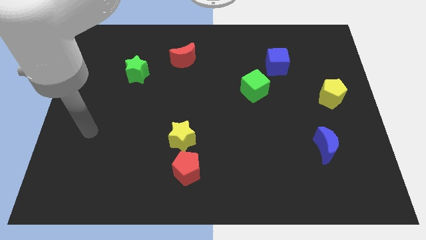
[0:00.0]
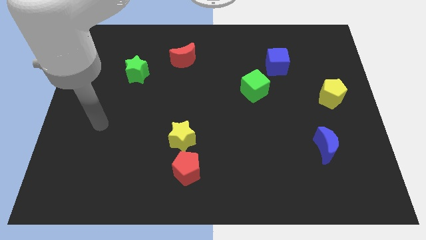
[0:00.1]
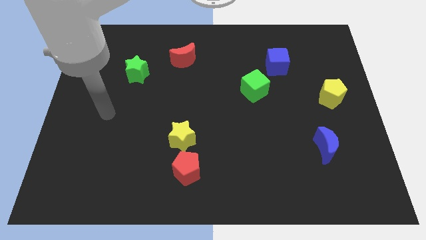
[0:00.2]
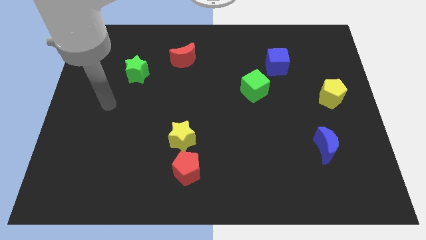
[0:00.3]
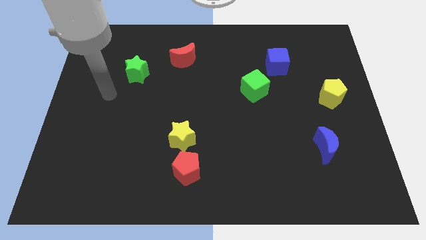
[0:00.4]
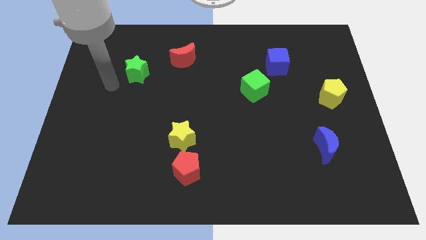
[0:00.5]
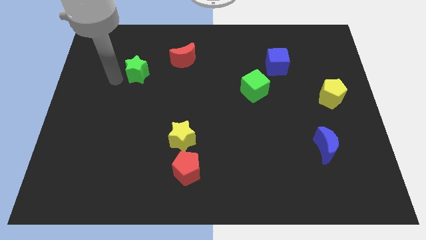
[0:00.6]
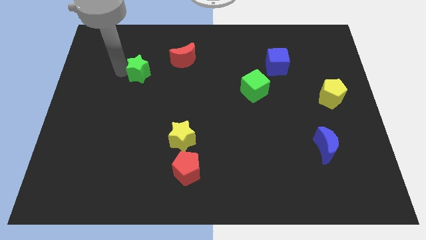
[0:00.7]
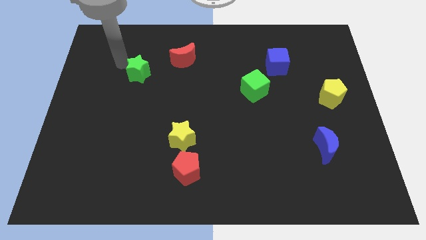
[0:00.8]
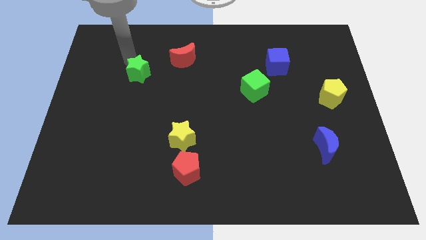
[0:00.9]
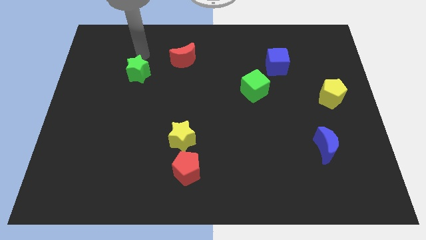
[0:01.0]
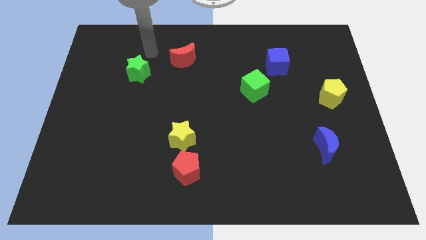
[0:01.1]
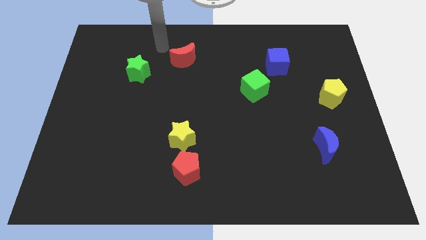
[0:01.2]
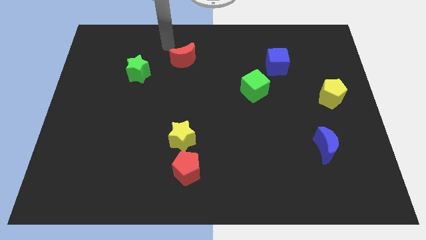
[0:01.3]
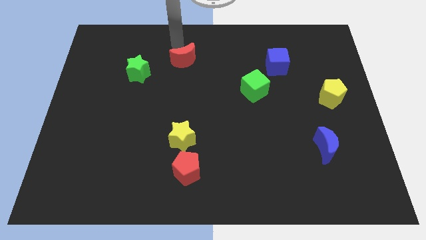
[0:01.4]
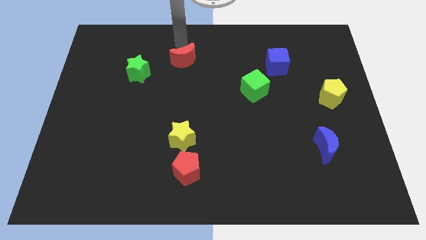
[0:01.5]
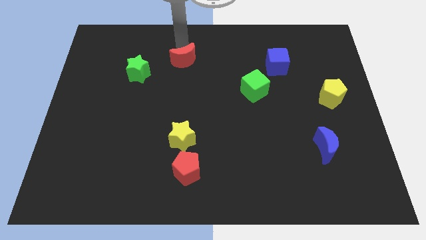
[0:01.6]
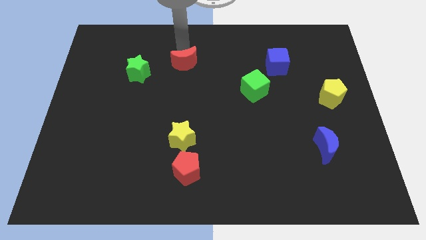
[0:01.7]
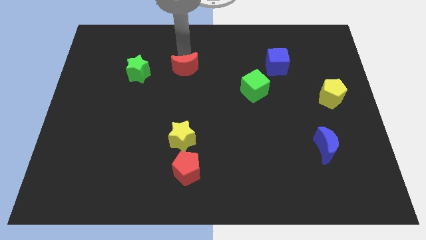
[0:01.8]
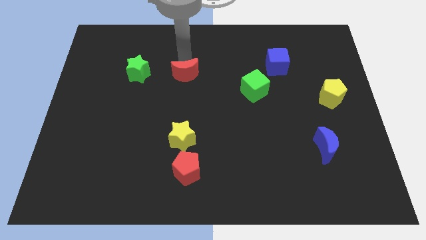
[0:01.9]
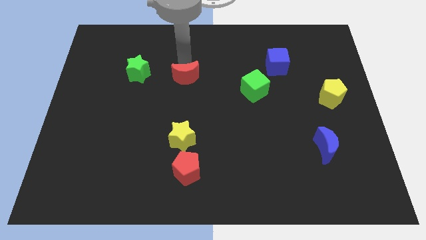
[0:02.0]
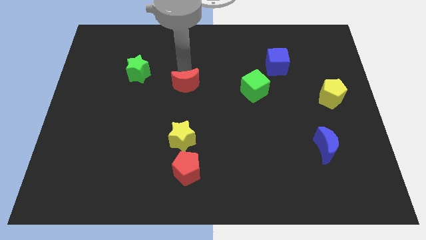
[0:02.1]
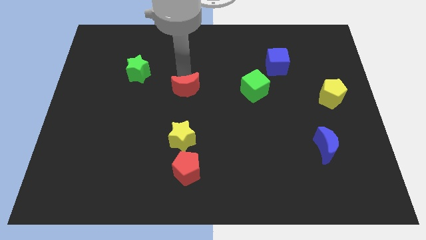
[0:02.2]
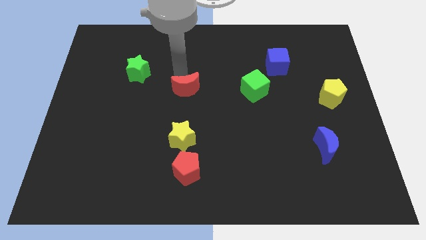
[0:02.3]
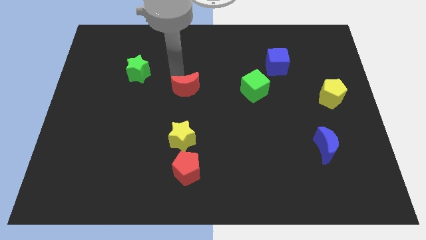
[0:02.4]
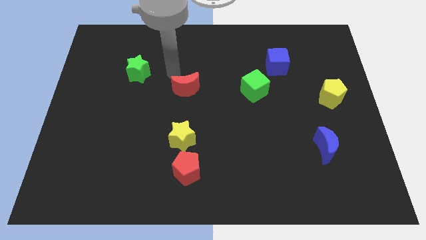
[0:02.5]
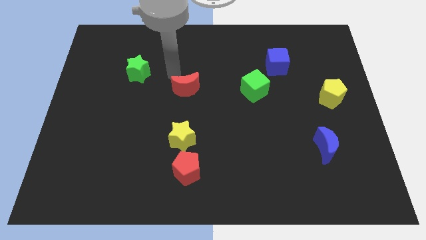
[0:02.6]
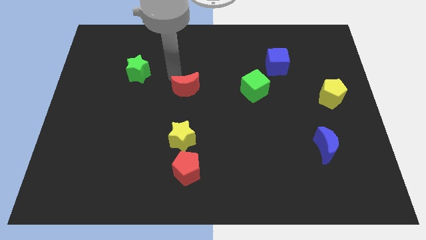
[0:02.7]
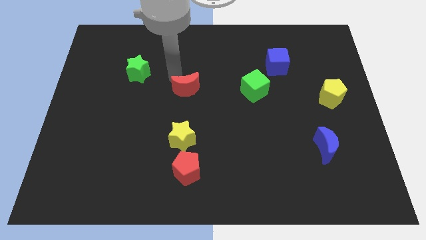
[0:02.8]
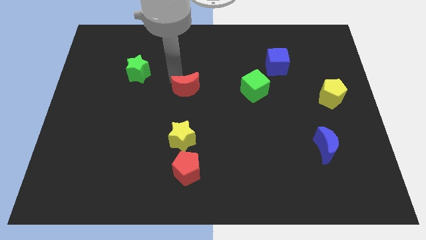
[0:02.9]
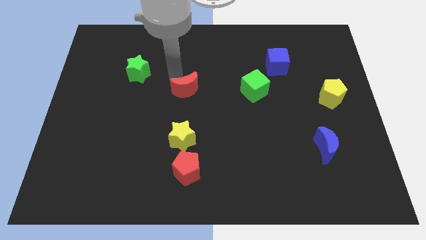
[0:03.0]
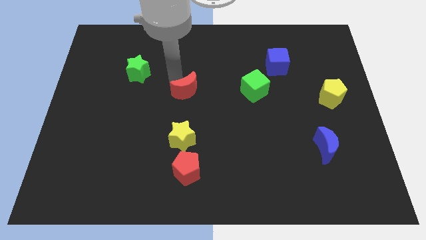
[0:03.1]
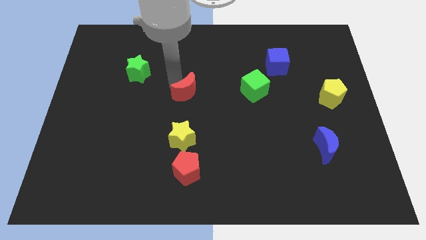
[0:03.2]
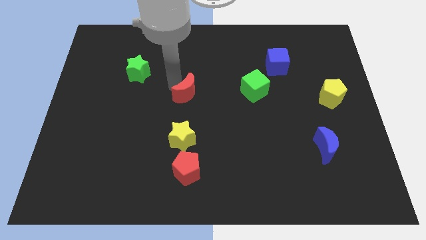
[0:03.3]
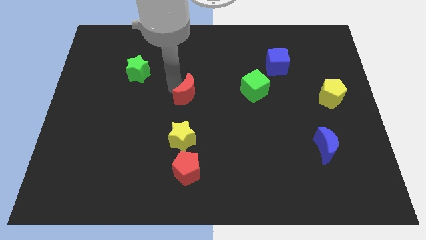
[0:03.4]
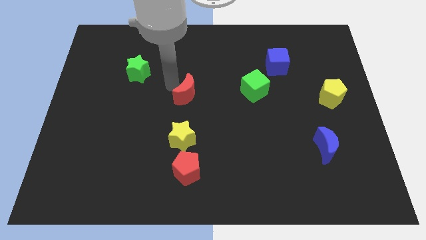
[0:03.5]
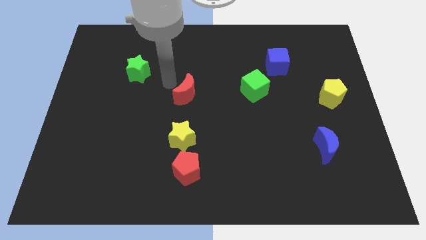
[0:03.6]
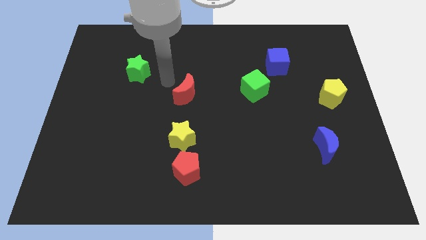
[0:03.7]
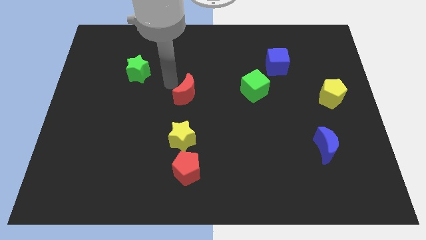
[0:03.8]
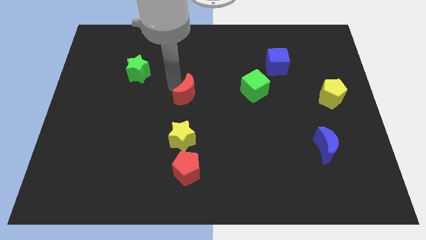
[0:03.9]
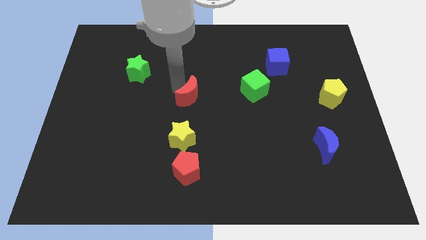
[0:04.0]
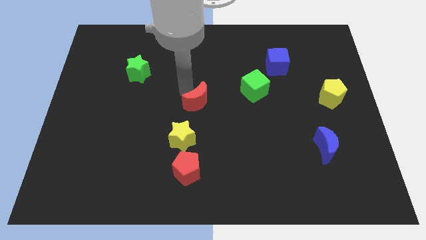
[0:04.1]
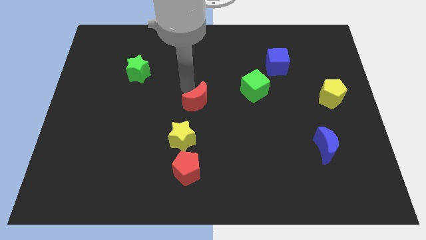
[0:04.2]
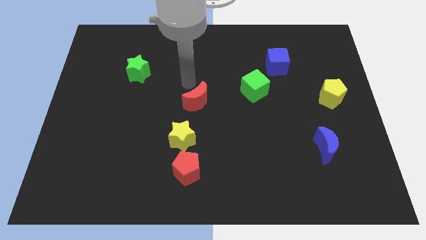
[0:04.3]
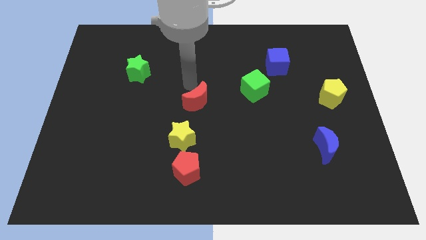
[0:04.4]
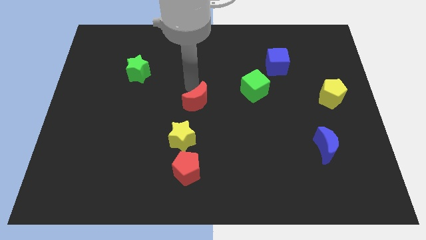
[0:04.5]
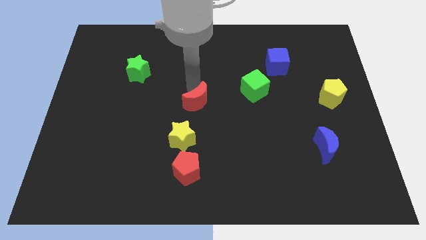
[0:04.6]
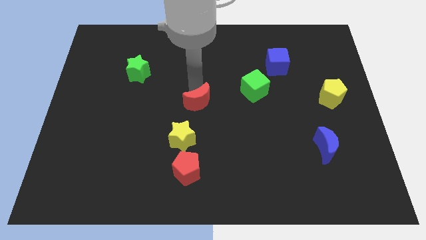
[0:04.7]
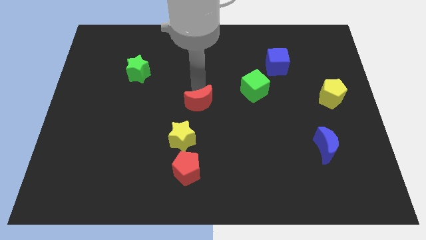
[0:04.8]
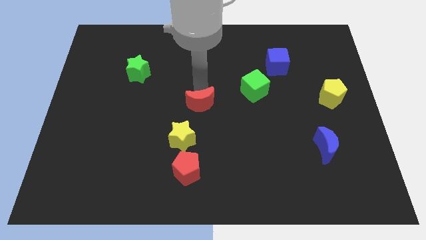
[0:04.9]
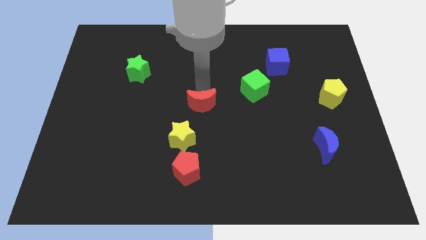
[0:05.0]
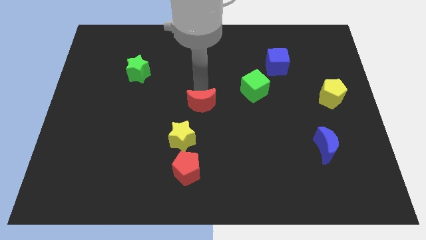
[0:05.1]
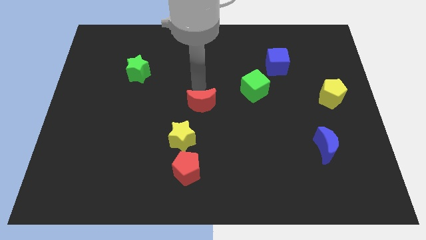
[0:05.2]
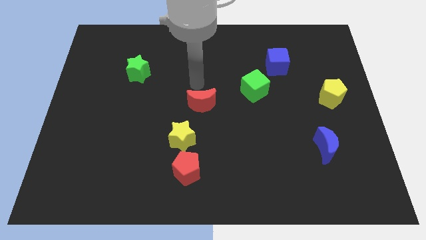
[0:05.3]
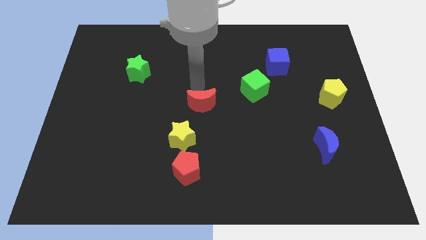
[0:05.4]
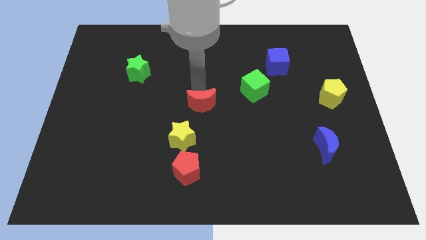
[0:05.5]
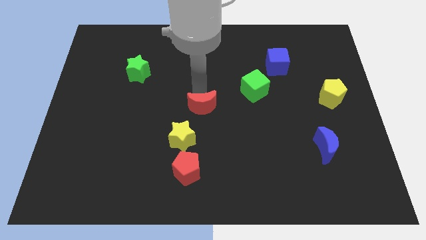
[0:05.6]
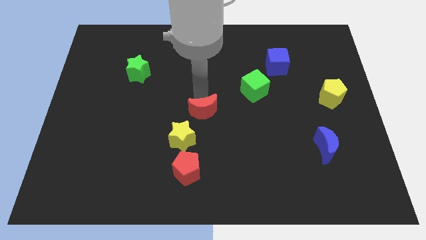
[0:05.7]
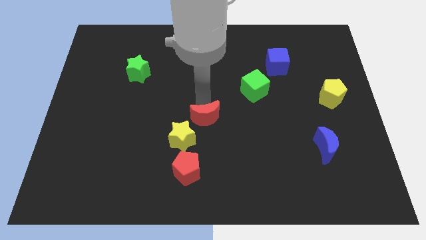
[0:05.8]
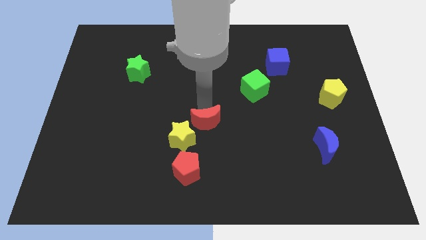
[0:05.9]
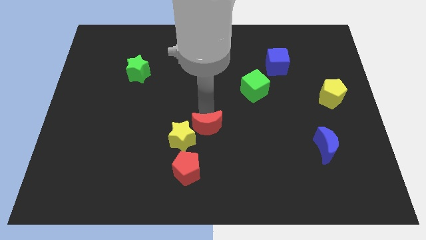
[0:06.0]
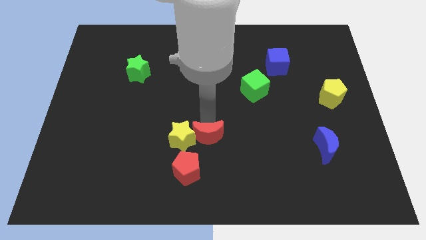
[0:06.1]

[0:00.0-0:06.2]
move the red moon to the bottom right of the yellow star

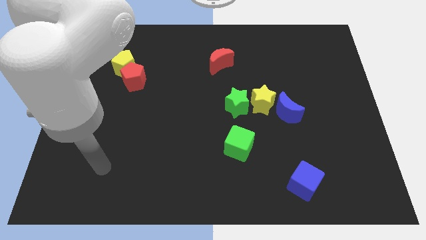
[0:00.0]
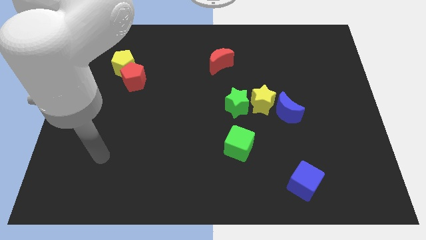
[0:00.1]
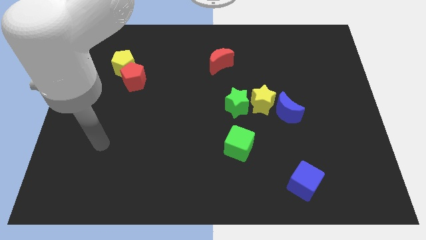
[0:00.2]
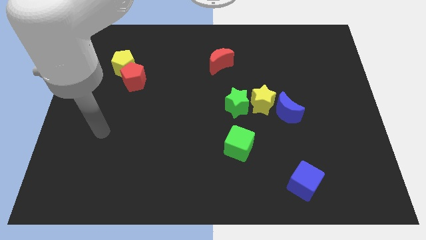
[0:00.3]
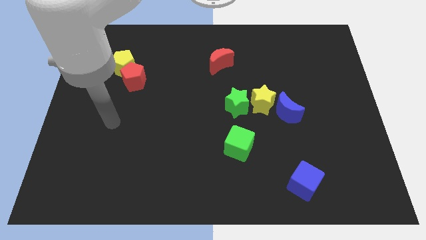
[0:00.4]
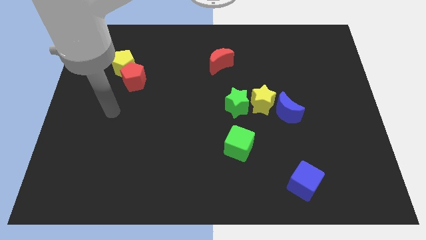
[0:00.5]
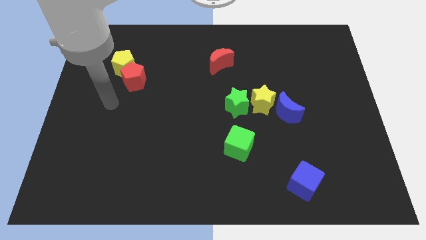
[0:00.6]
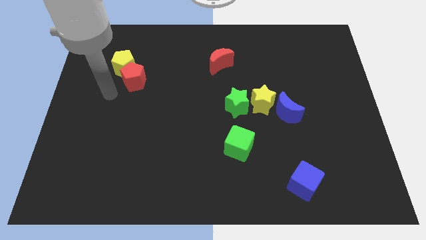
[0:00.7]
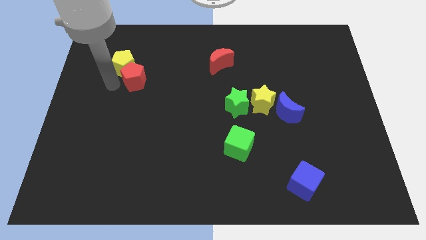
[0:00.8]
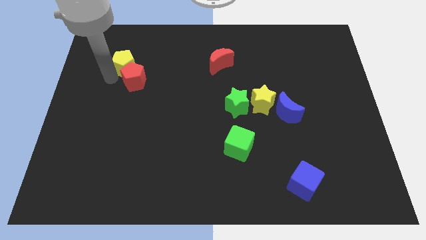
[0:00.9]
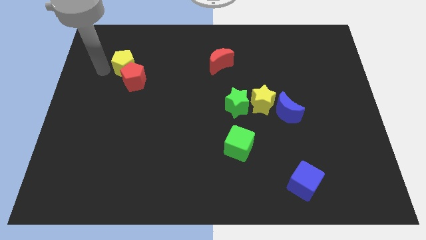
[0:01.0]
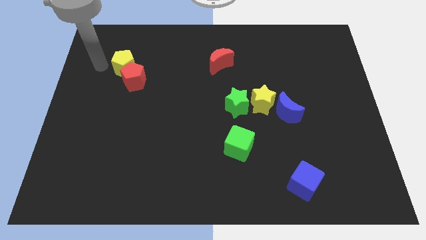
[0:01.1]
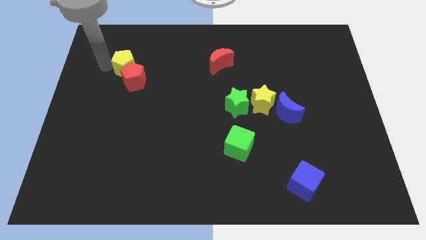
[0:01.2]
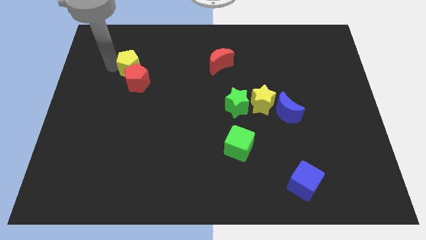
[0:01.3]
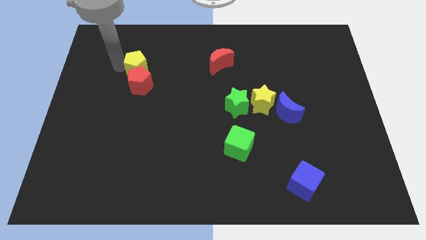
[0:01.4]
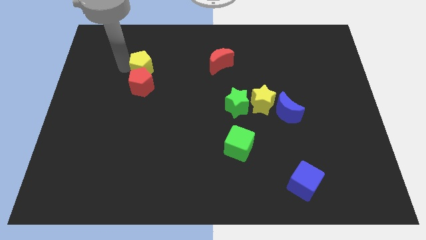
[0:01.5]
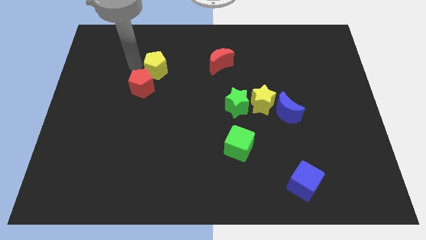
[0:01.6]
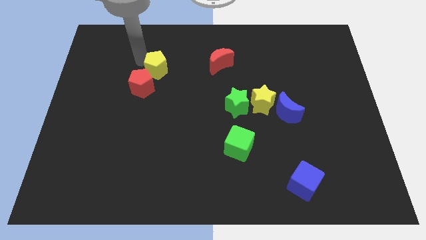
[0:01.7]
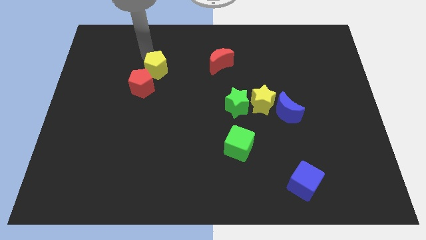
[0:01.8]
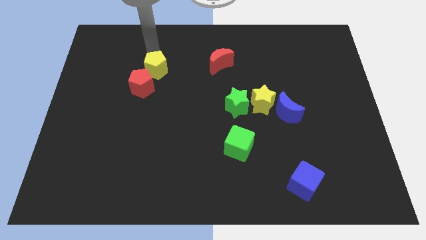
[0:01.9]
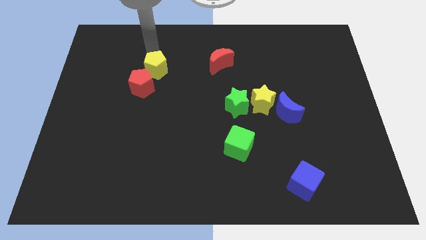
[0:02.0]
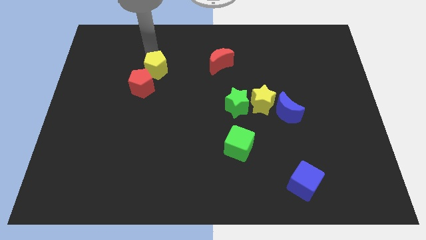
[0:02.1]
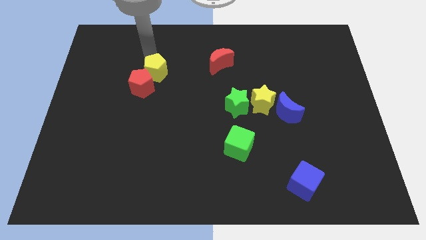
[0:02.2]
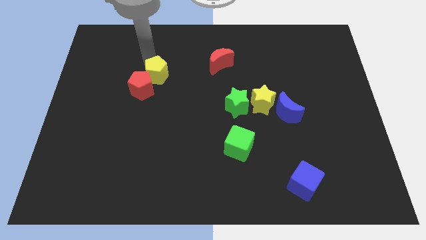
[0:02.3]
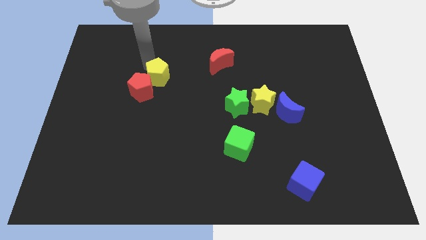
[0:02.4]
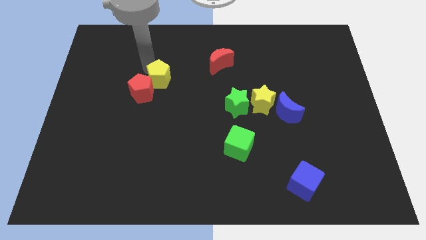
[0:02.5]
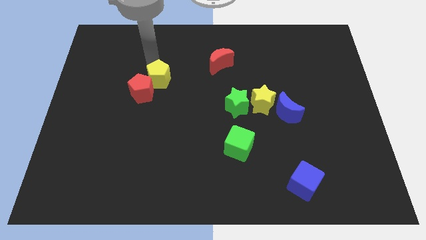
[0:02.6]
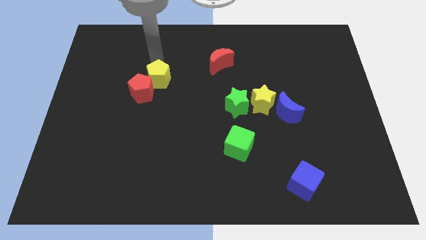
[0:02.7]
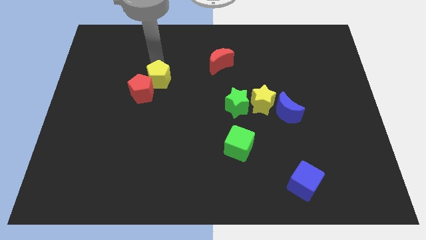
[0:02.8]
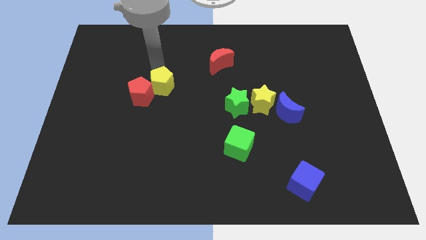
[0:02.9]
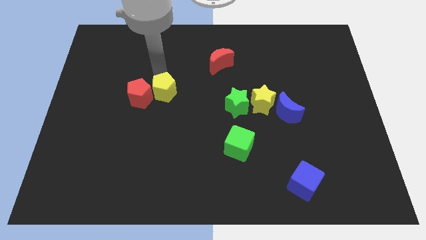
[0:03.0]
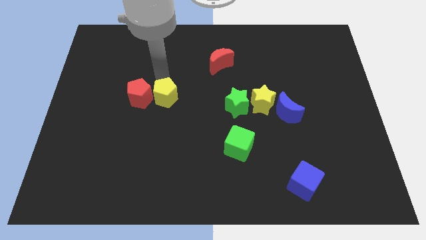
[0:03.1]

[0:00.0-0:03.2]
push the yellow pentagon to the bottom right of the red pentagon
